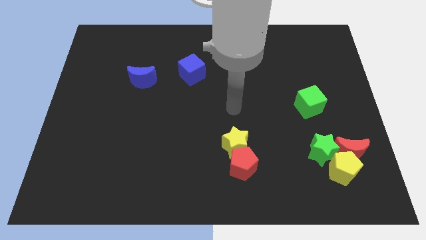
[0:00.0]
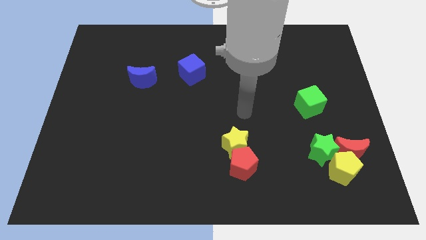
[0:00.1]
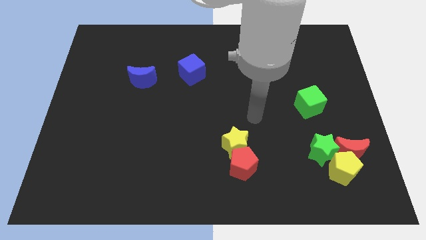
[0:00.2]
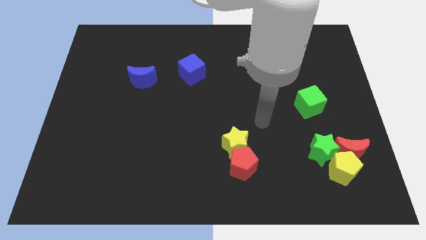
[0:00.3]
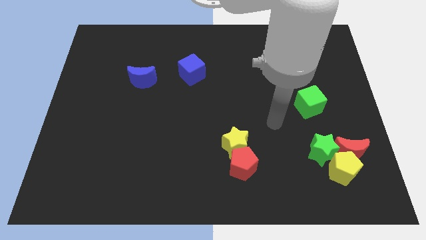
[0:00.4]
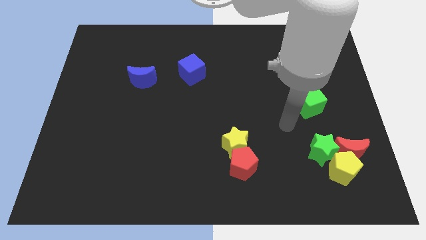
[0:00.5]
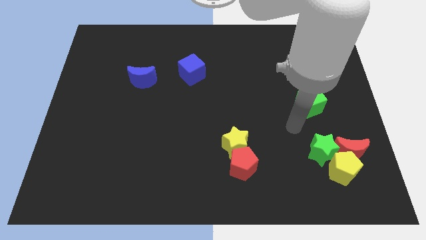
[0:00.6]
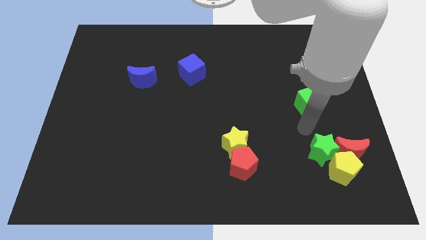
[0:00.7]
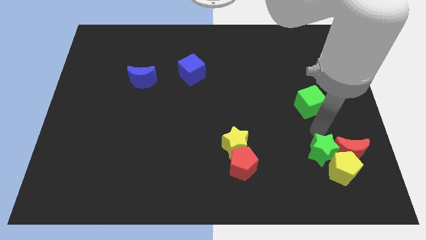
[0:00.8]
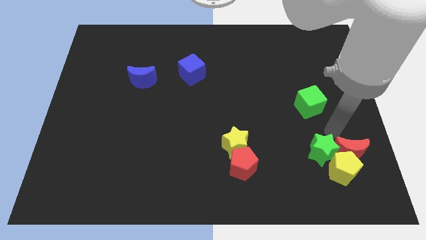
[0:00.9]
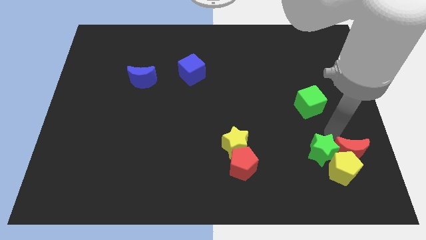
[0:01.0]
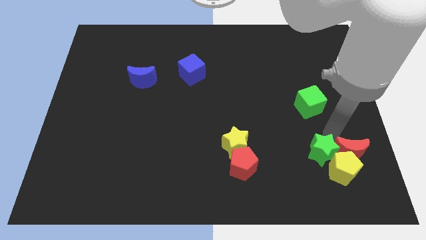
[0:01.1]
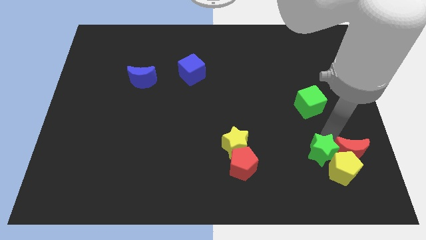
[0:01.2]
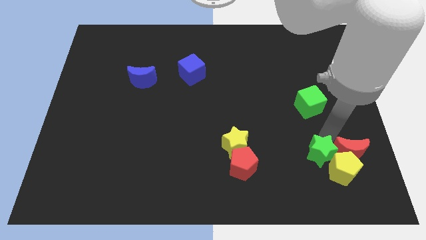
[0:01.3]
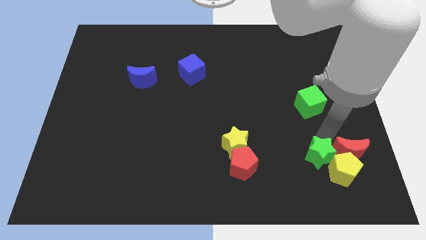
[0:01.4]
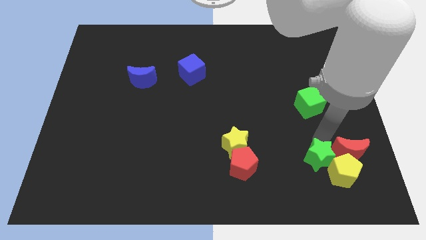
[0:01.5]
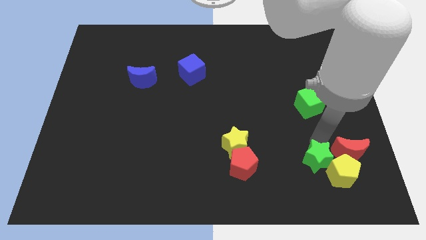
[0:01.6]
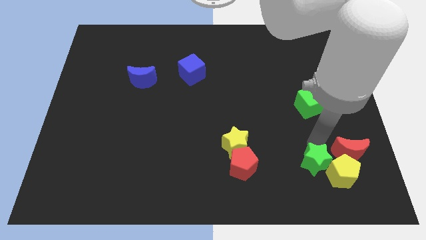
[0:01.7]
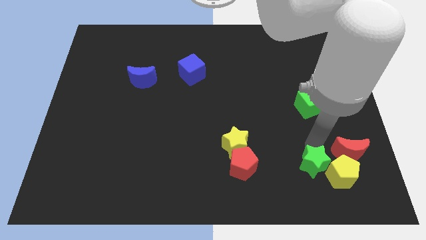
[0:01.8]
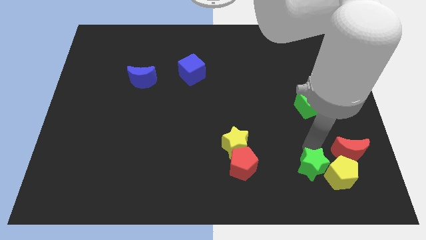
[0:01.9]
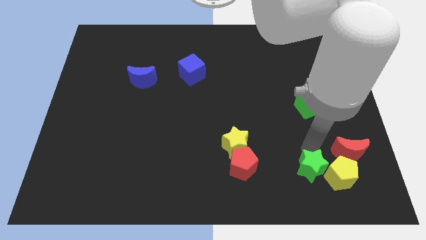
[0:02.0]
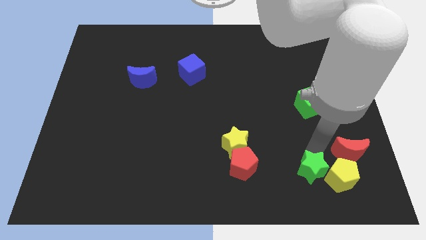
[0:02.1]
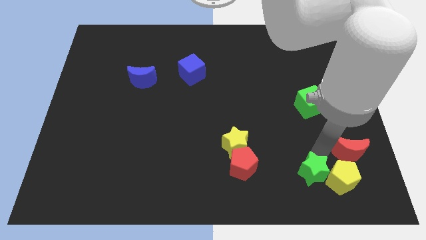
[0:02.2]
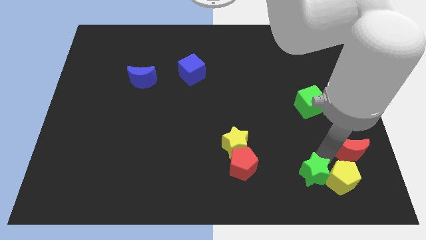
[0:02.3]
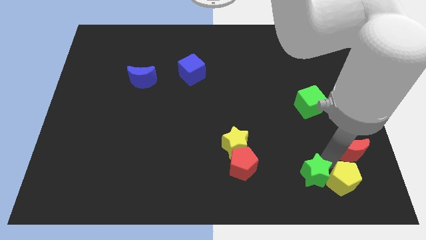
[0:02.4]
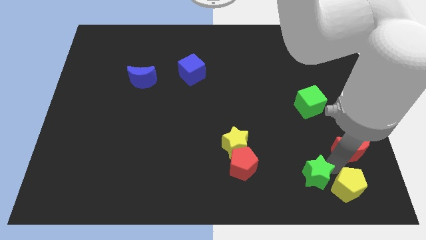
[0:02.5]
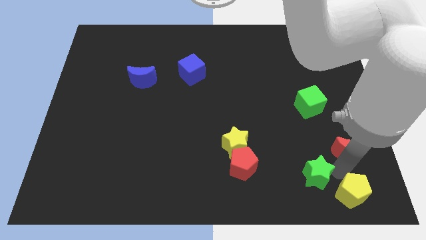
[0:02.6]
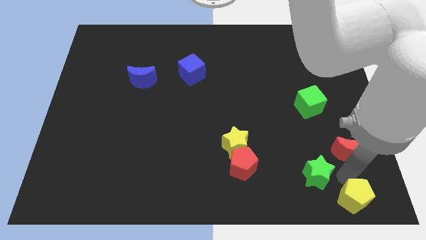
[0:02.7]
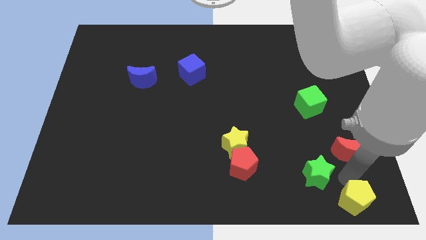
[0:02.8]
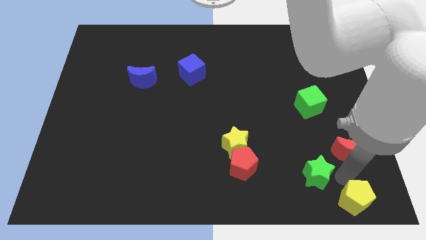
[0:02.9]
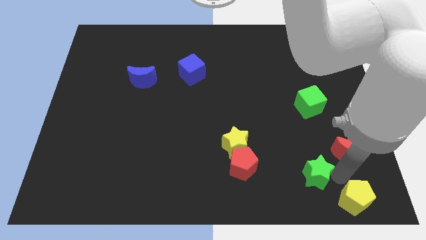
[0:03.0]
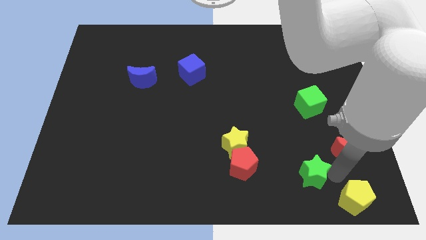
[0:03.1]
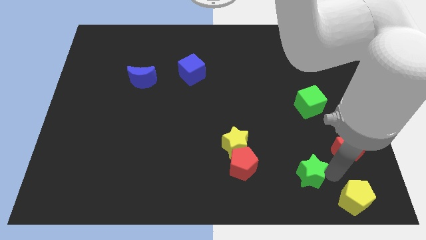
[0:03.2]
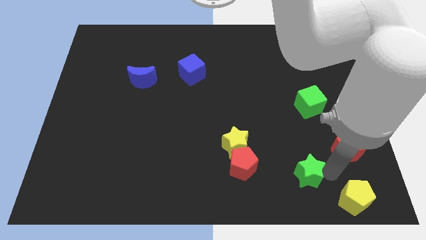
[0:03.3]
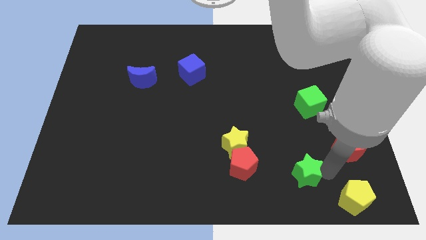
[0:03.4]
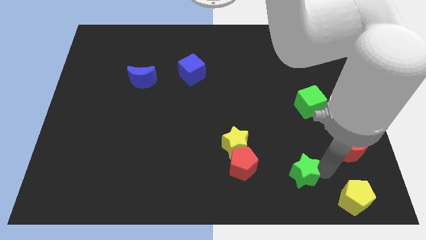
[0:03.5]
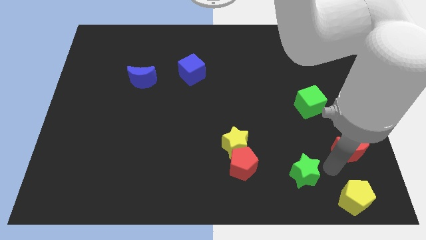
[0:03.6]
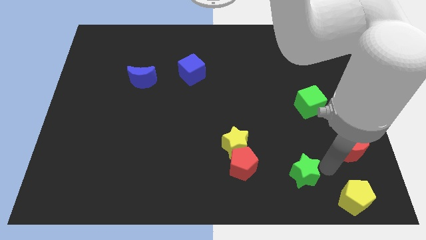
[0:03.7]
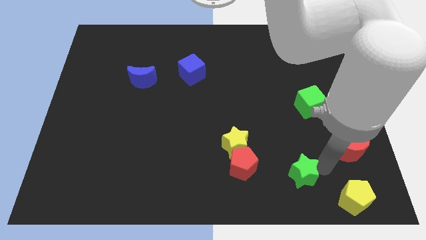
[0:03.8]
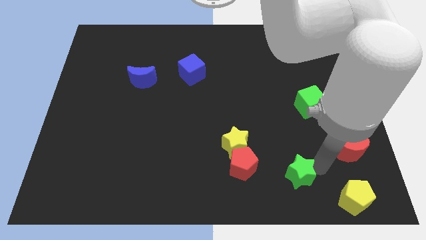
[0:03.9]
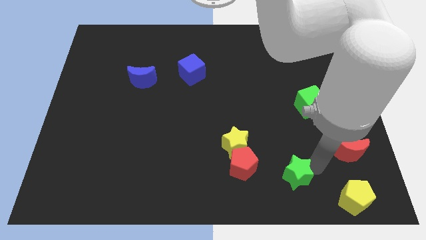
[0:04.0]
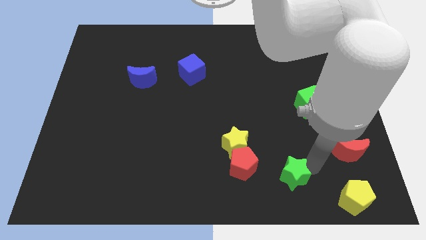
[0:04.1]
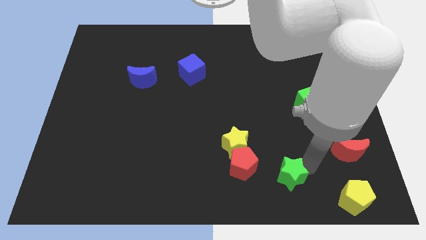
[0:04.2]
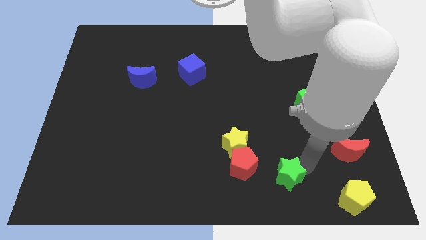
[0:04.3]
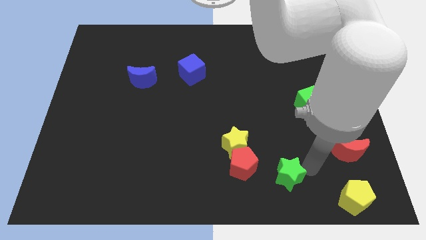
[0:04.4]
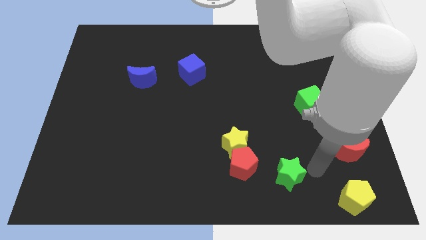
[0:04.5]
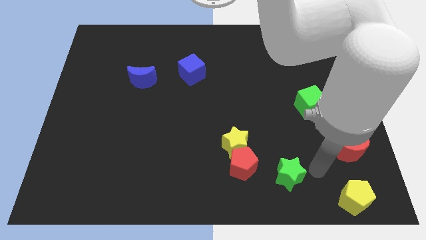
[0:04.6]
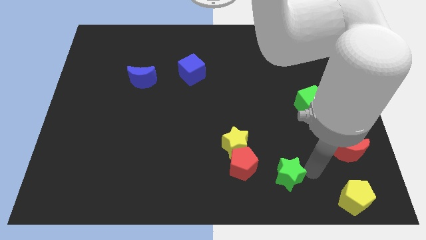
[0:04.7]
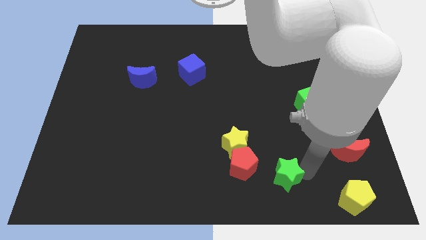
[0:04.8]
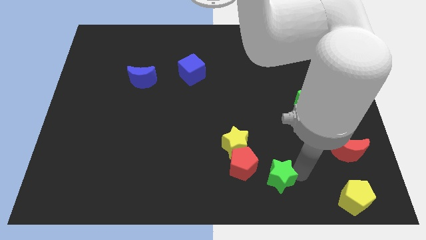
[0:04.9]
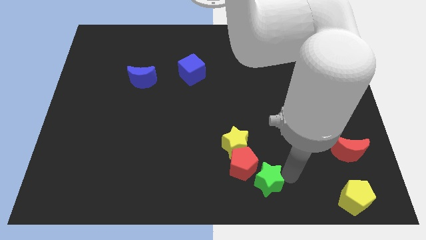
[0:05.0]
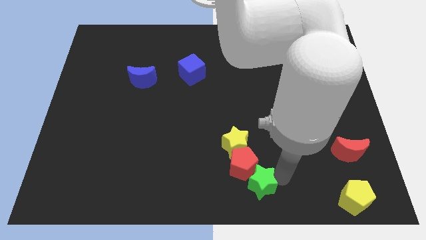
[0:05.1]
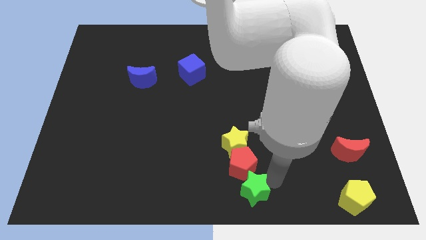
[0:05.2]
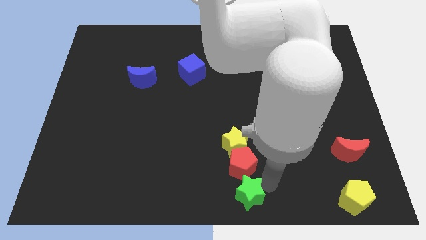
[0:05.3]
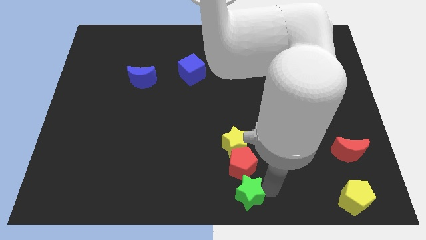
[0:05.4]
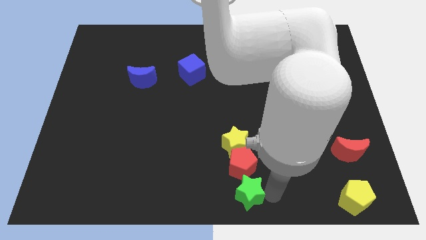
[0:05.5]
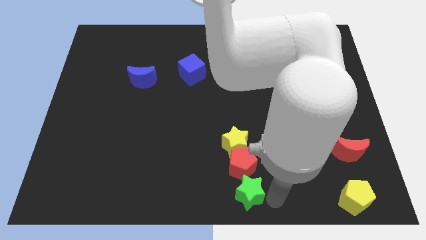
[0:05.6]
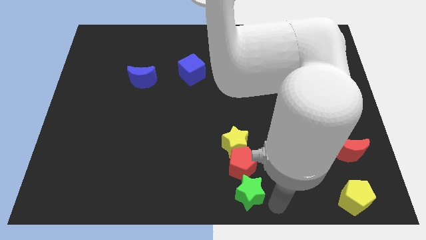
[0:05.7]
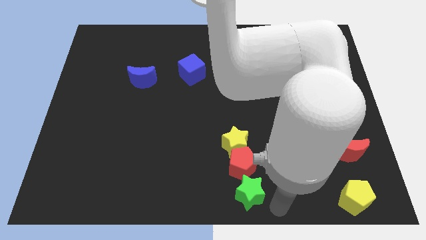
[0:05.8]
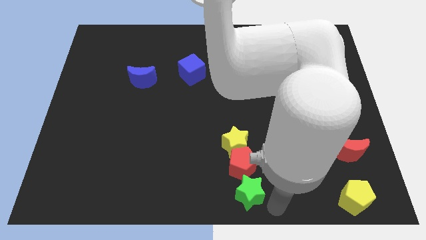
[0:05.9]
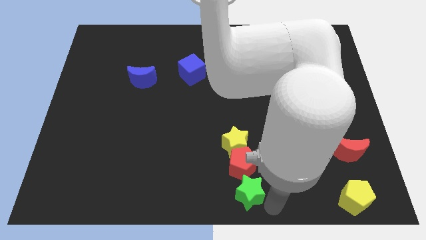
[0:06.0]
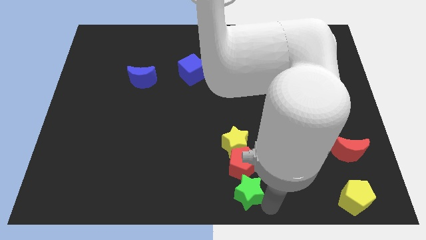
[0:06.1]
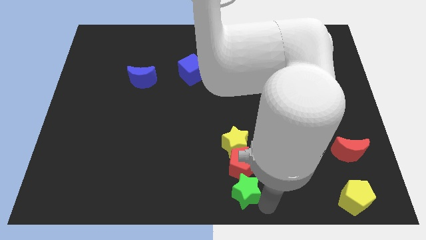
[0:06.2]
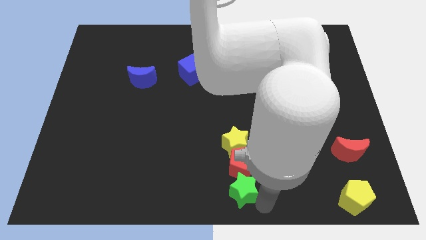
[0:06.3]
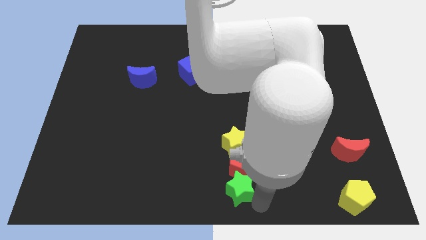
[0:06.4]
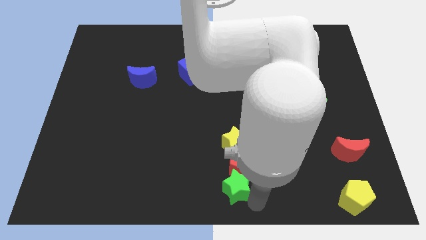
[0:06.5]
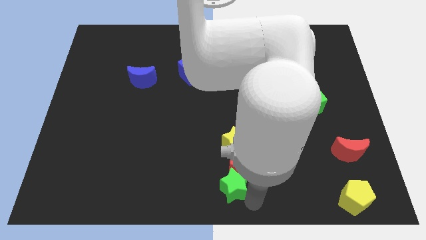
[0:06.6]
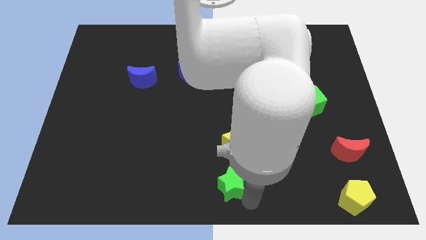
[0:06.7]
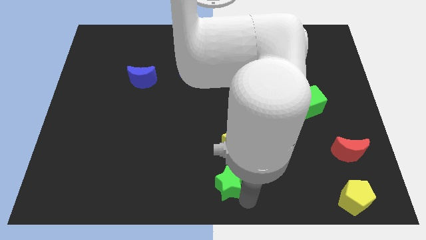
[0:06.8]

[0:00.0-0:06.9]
put the green star left of the red pentagon
